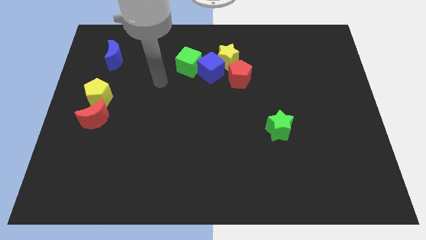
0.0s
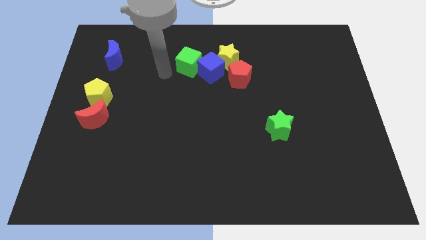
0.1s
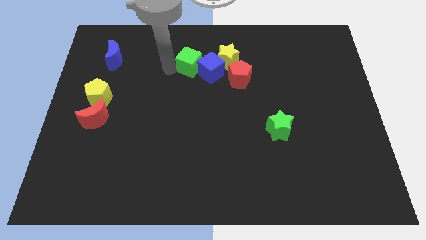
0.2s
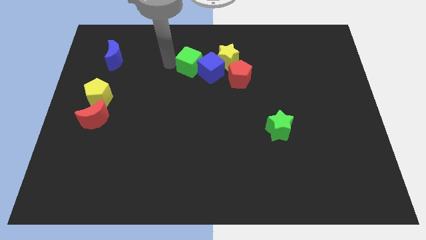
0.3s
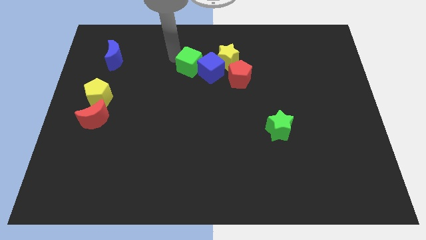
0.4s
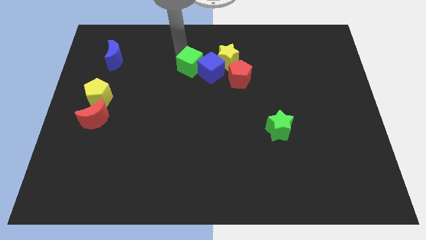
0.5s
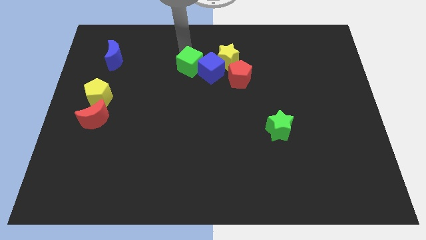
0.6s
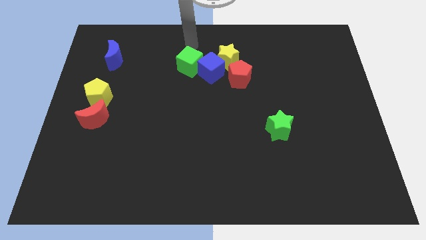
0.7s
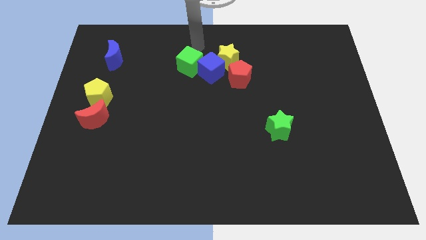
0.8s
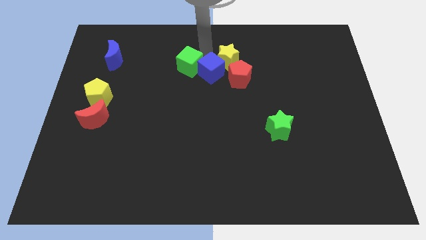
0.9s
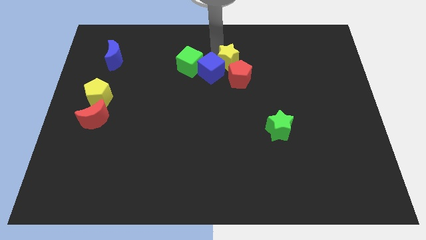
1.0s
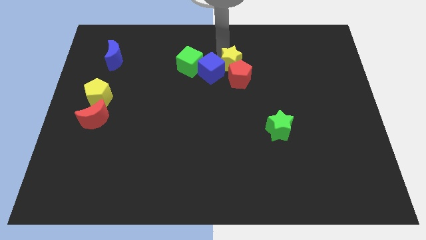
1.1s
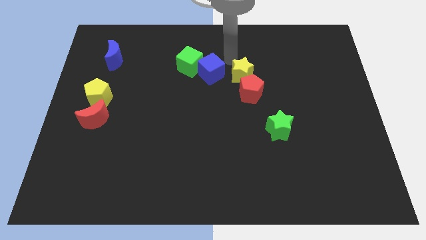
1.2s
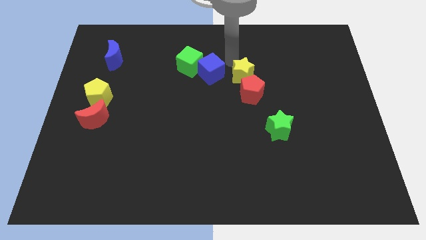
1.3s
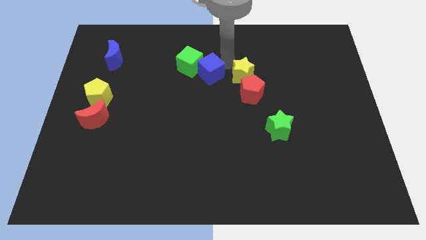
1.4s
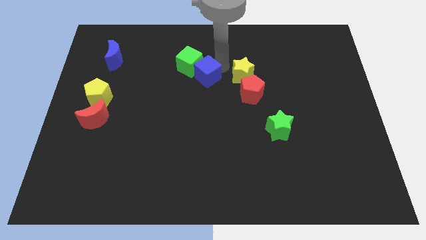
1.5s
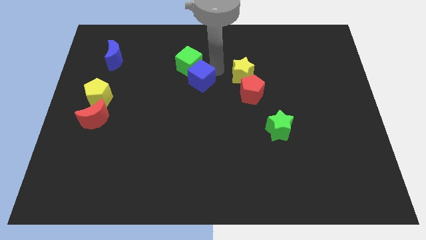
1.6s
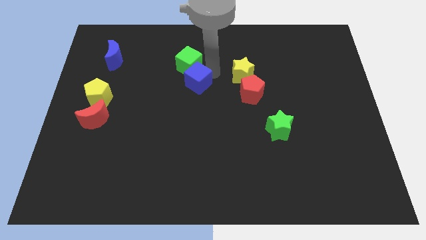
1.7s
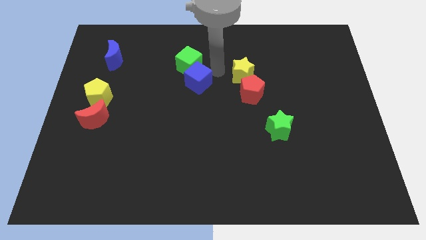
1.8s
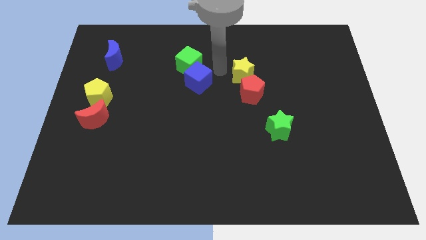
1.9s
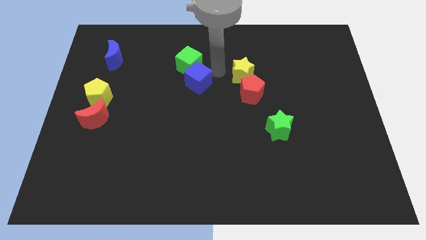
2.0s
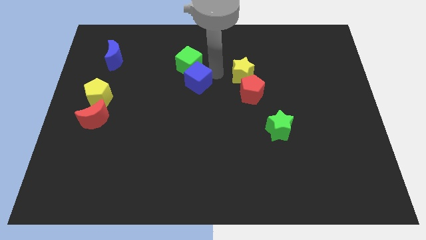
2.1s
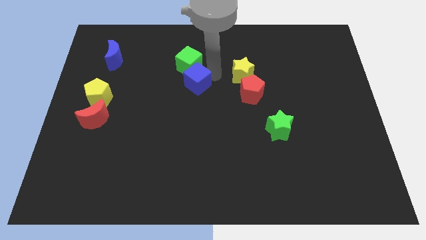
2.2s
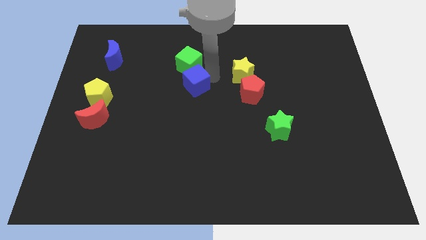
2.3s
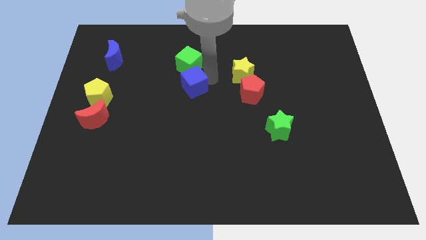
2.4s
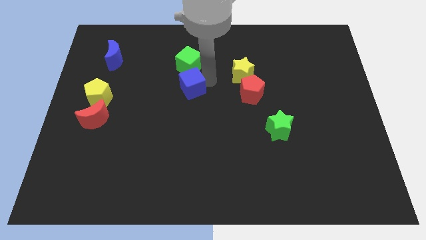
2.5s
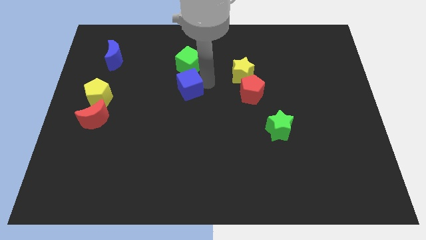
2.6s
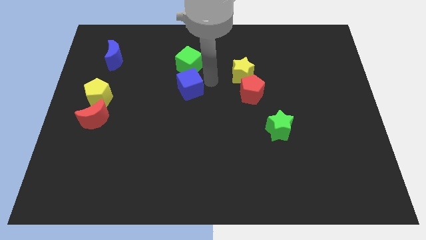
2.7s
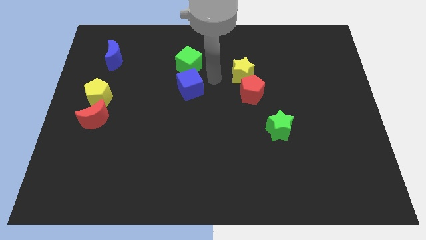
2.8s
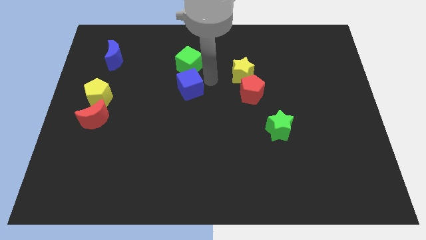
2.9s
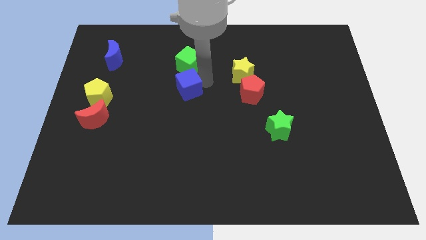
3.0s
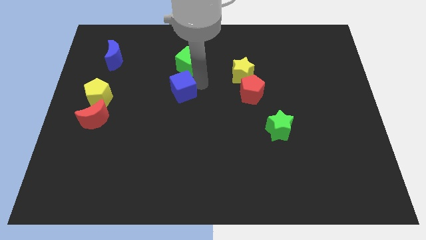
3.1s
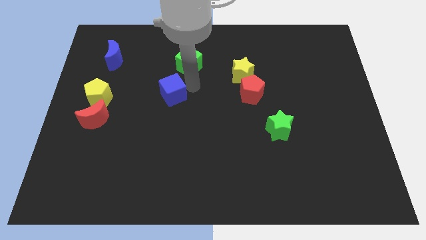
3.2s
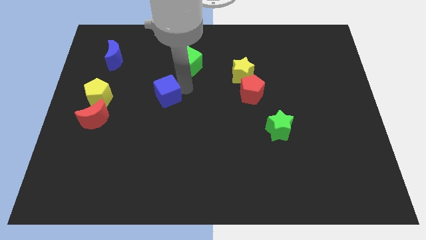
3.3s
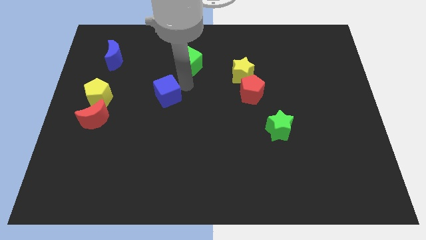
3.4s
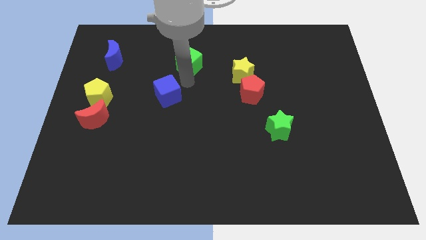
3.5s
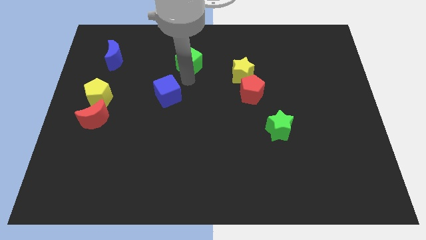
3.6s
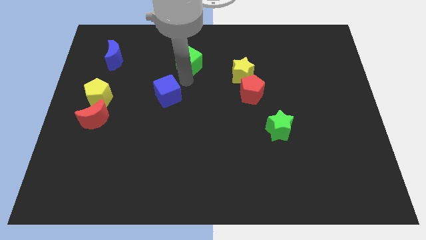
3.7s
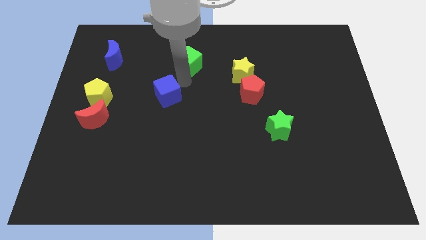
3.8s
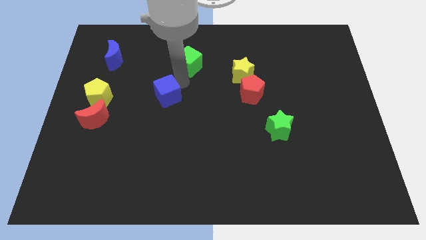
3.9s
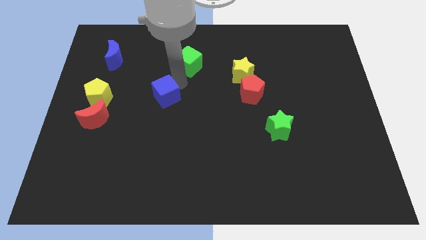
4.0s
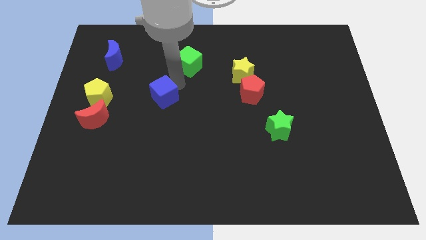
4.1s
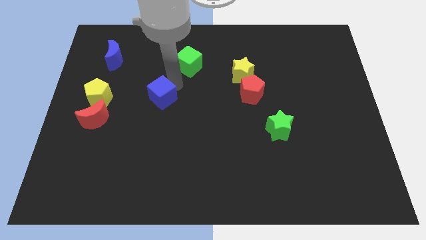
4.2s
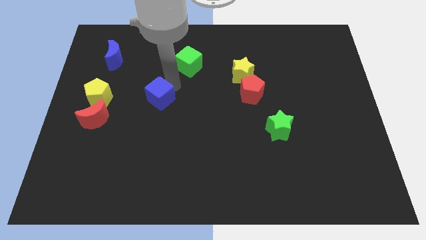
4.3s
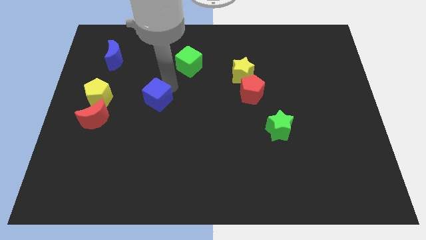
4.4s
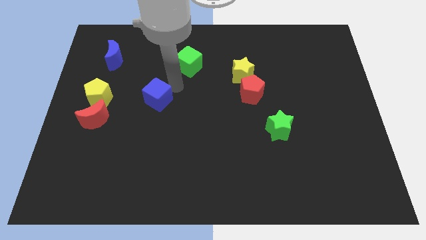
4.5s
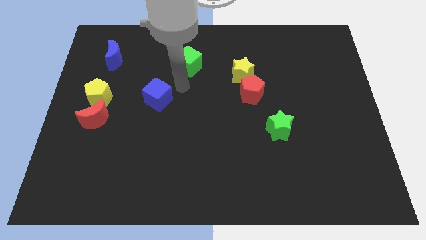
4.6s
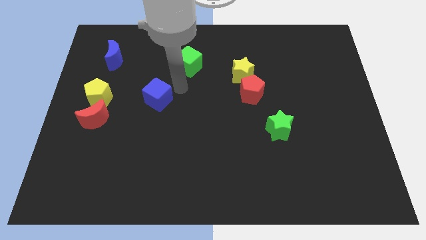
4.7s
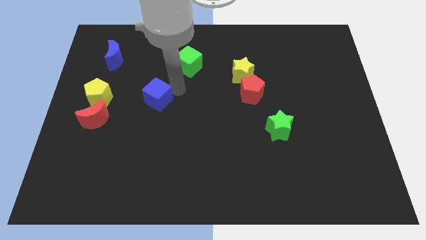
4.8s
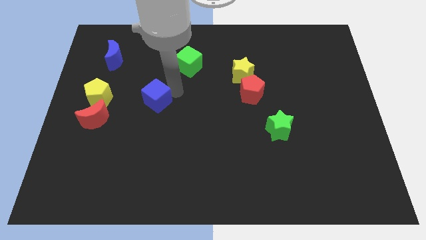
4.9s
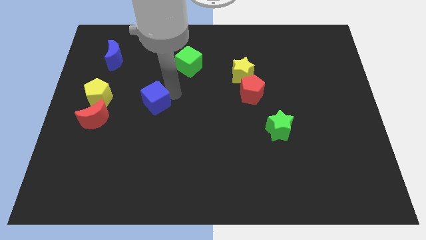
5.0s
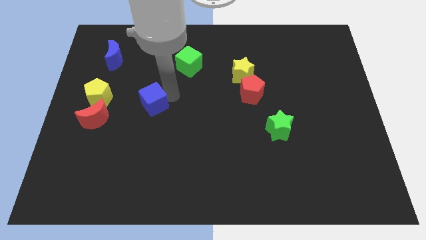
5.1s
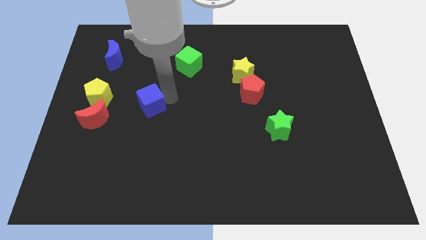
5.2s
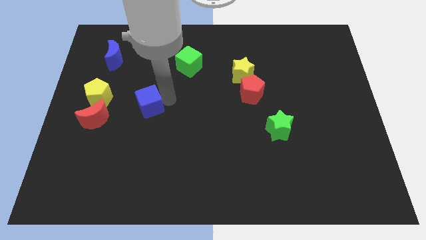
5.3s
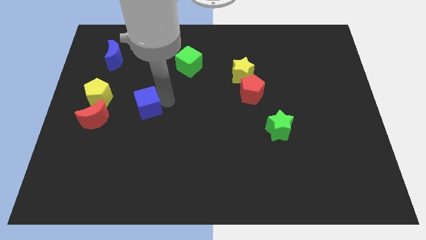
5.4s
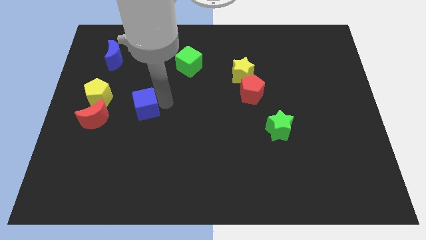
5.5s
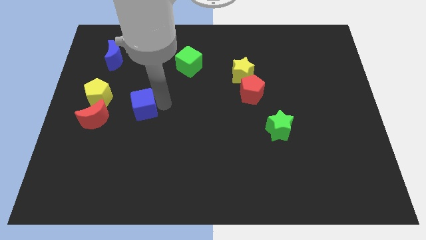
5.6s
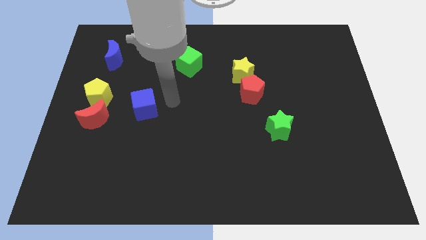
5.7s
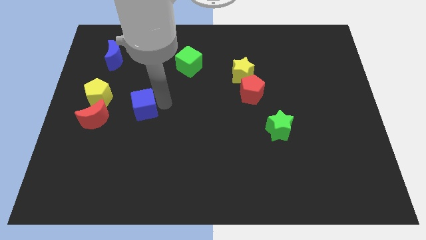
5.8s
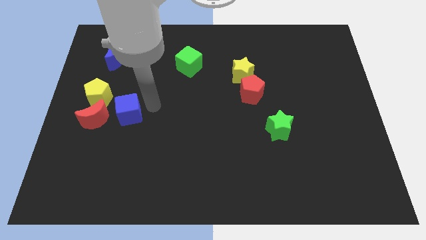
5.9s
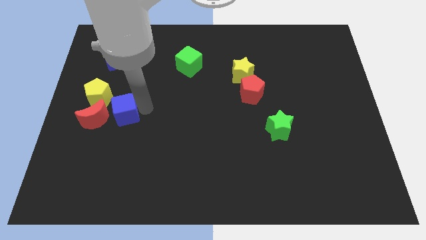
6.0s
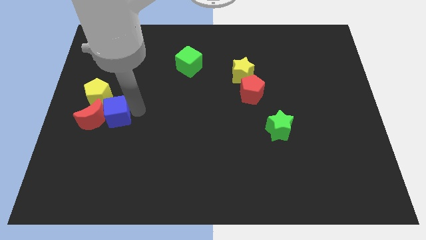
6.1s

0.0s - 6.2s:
put the blue cube close to the red moon

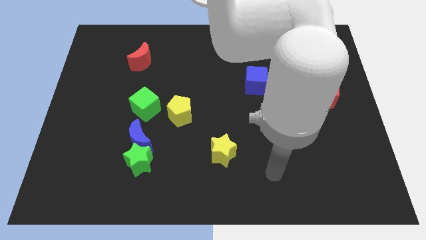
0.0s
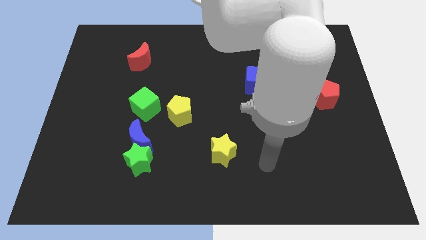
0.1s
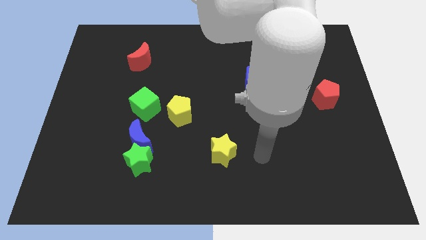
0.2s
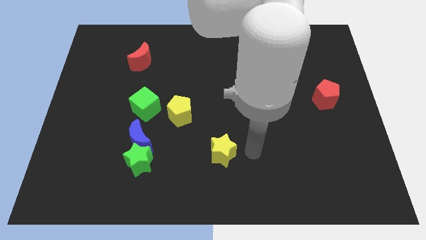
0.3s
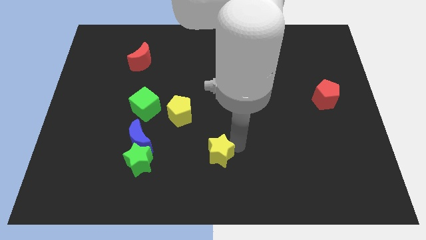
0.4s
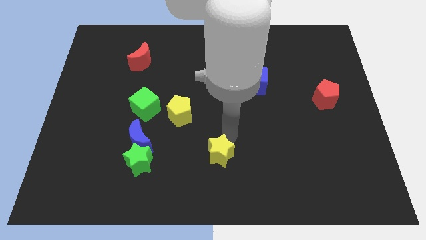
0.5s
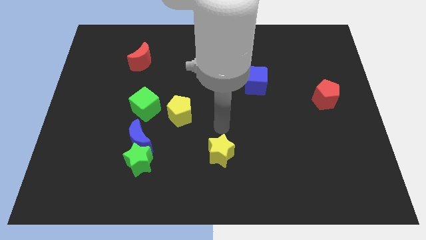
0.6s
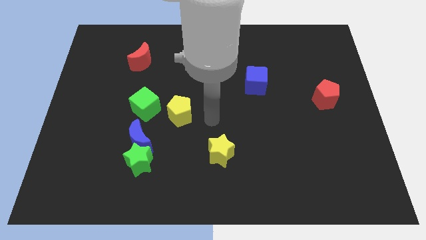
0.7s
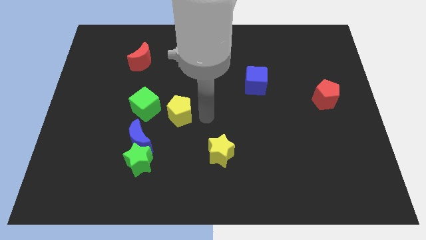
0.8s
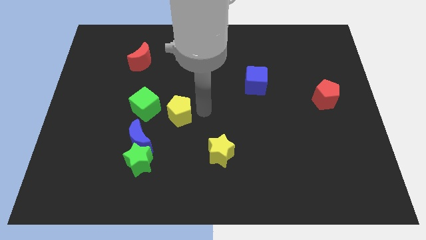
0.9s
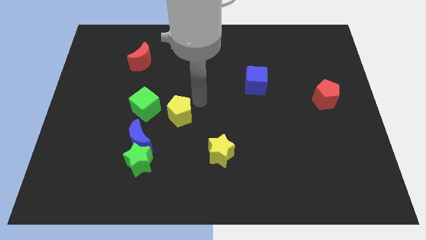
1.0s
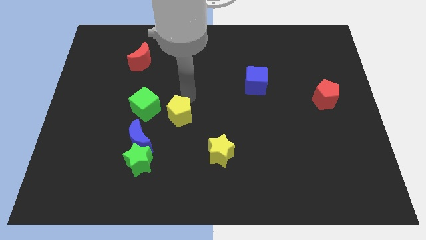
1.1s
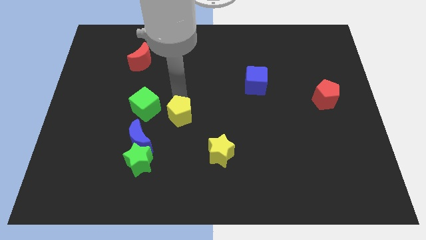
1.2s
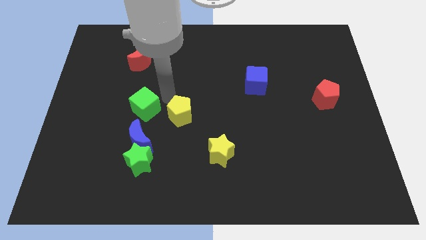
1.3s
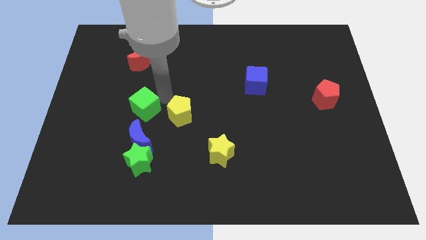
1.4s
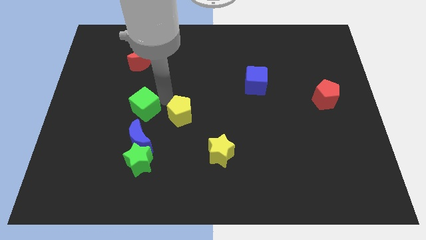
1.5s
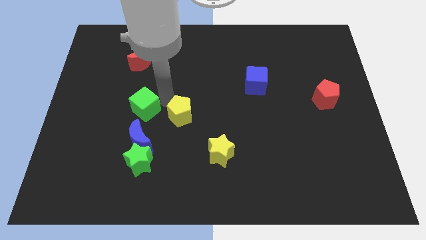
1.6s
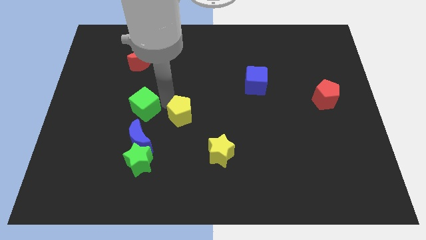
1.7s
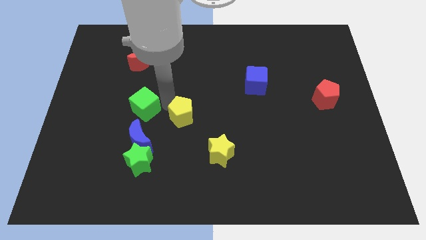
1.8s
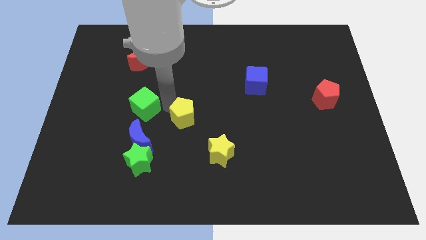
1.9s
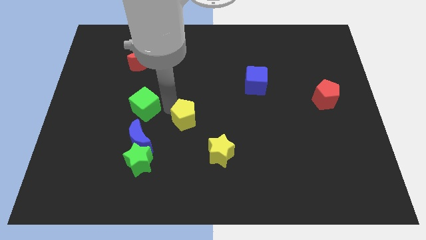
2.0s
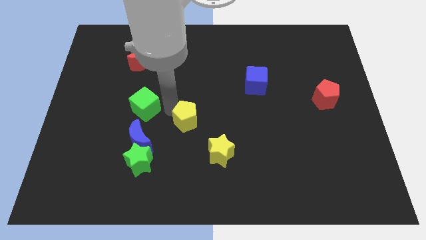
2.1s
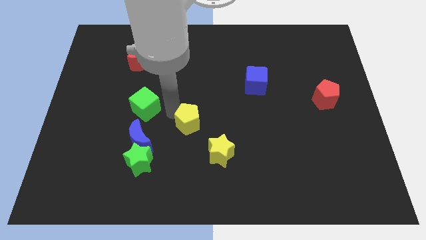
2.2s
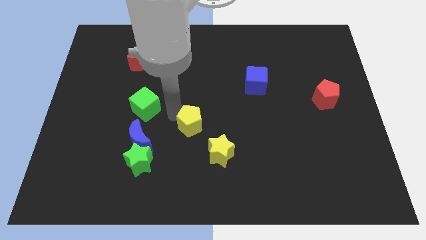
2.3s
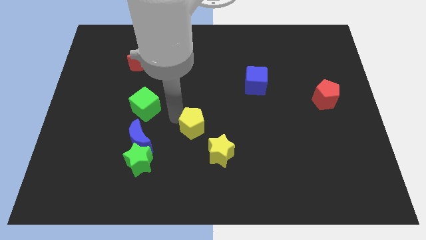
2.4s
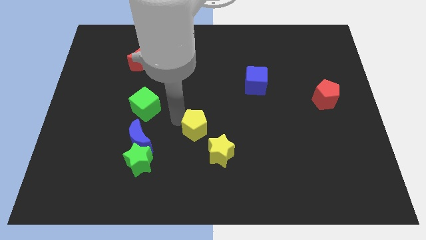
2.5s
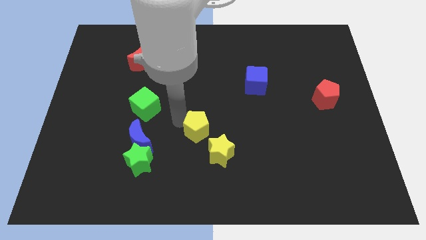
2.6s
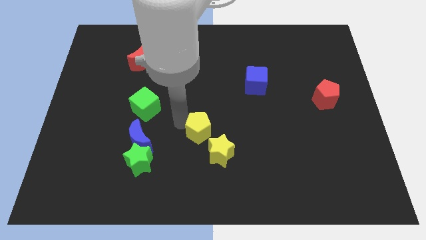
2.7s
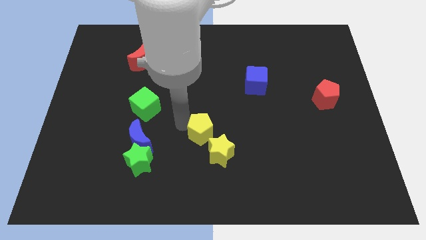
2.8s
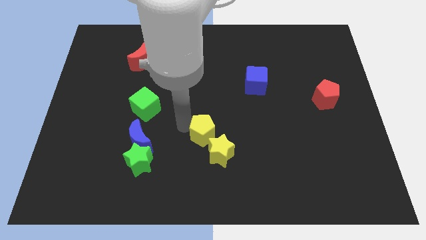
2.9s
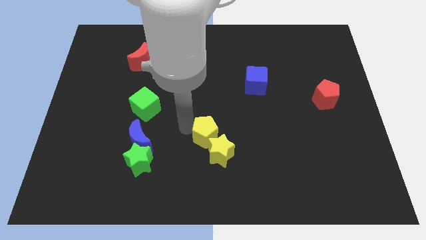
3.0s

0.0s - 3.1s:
put the yellow pentagon close to the yellow star
